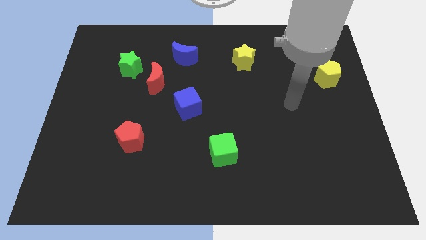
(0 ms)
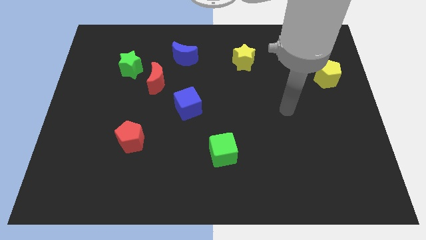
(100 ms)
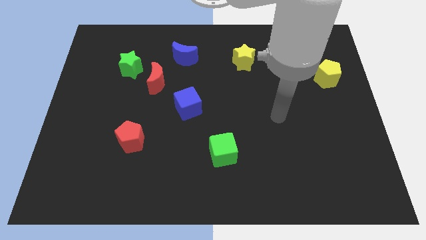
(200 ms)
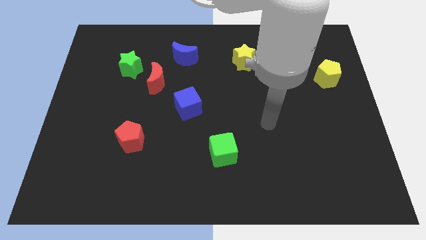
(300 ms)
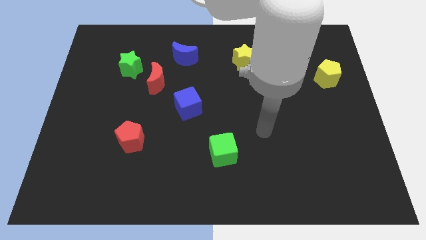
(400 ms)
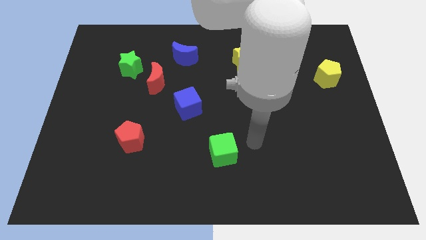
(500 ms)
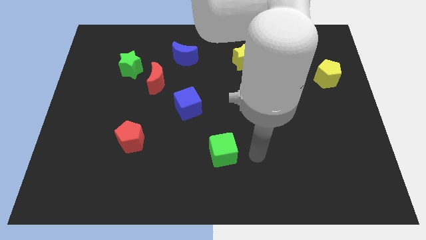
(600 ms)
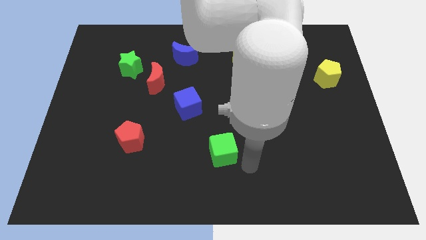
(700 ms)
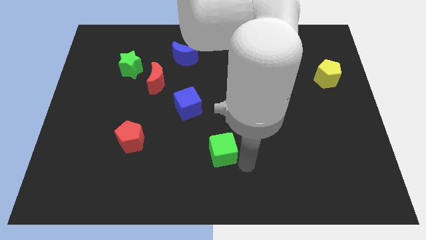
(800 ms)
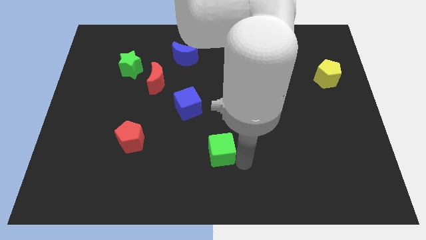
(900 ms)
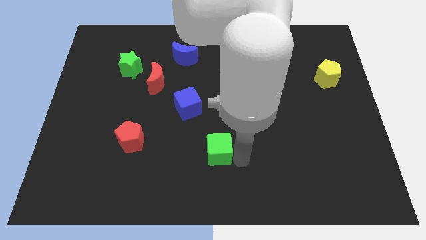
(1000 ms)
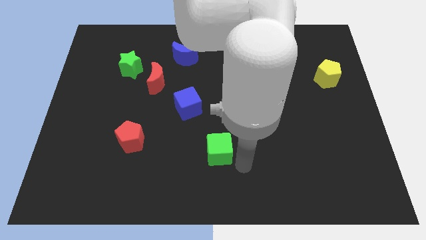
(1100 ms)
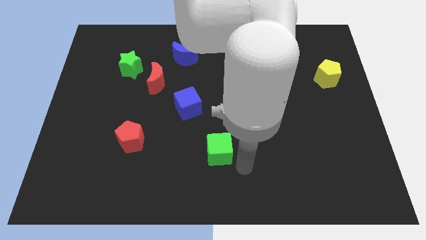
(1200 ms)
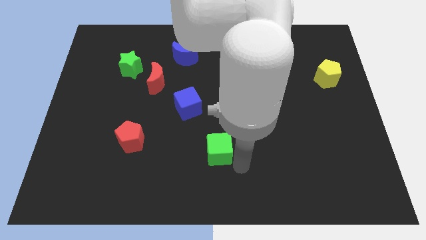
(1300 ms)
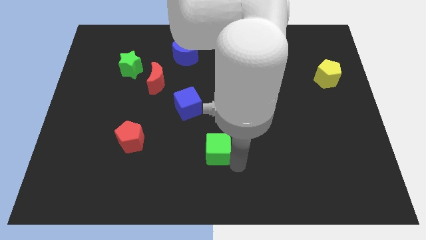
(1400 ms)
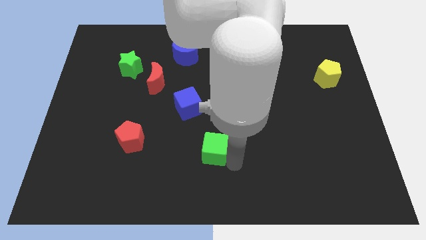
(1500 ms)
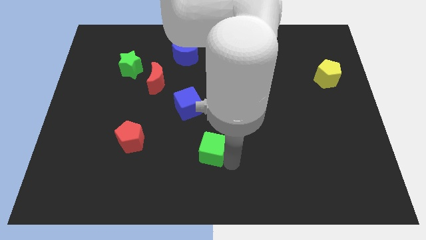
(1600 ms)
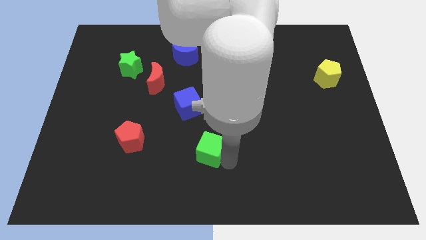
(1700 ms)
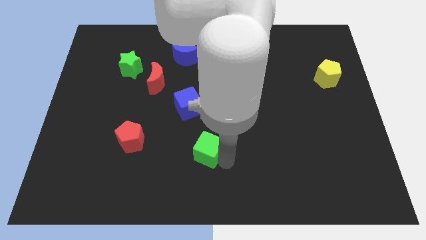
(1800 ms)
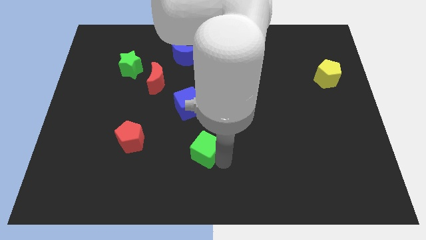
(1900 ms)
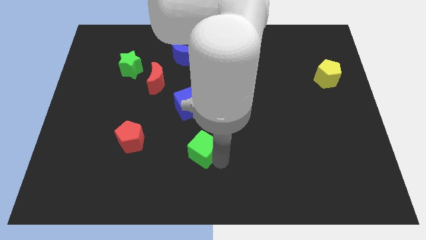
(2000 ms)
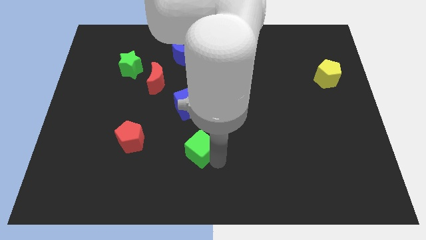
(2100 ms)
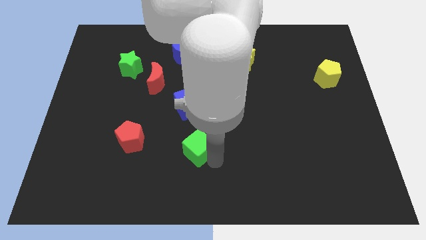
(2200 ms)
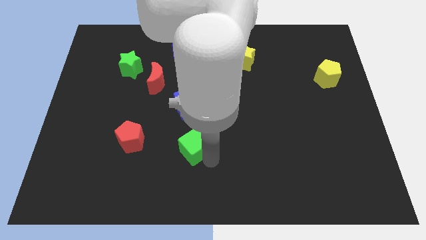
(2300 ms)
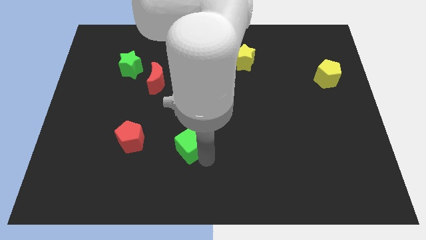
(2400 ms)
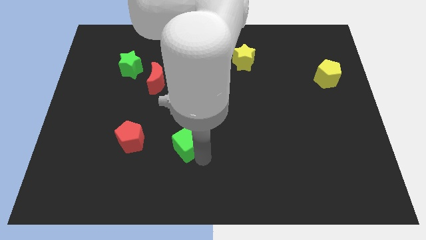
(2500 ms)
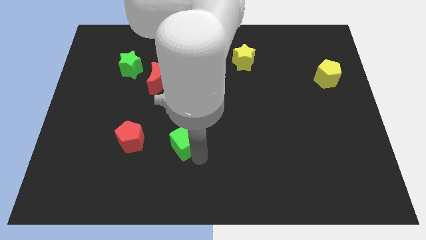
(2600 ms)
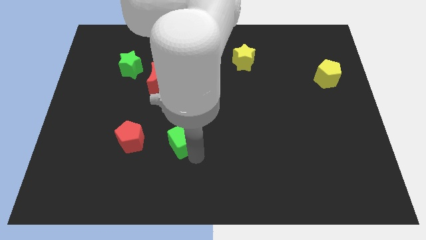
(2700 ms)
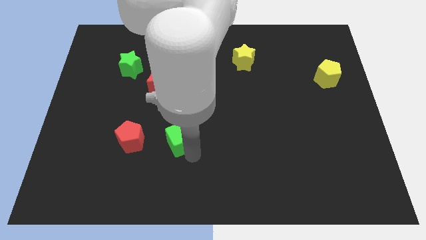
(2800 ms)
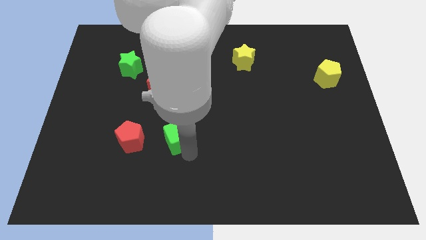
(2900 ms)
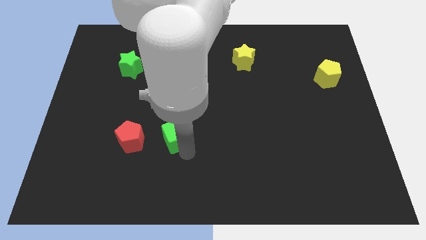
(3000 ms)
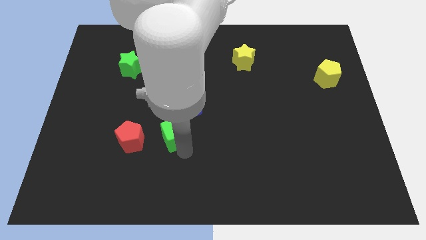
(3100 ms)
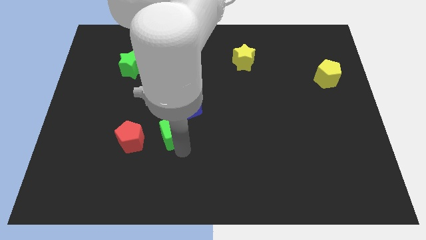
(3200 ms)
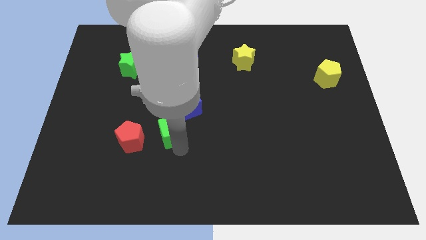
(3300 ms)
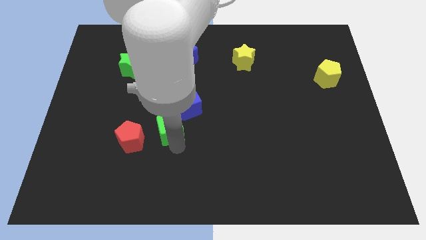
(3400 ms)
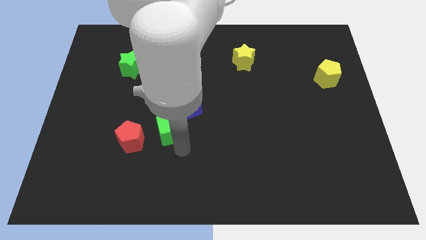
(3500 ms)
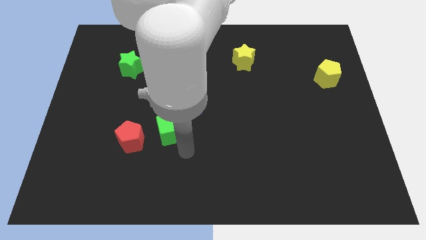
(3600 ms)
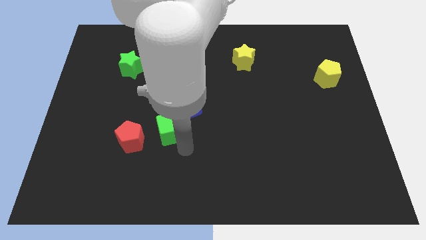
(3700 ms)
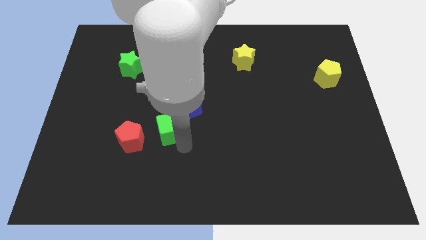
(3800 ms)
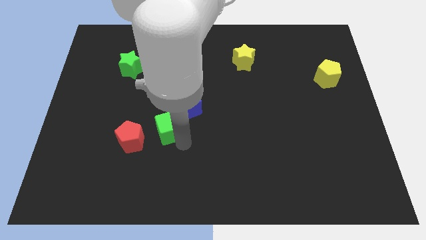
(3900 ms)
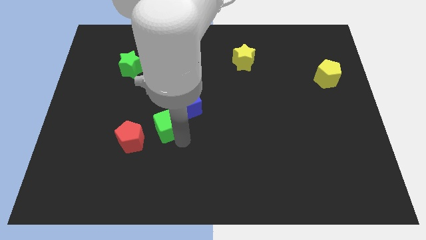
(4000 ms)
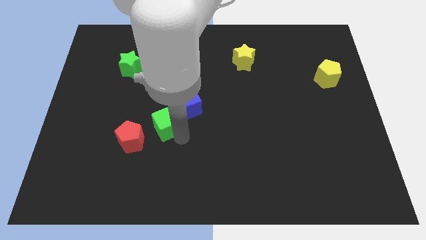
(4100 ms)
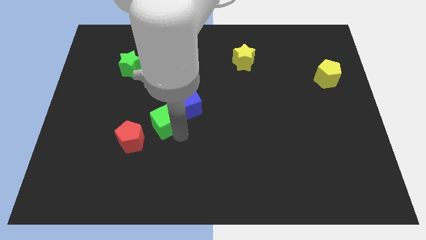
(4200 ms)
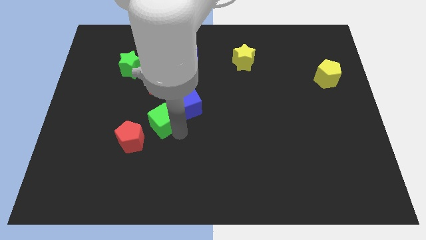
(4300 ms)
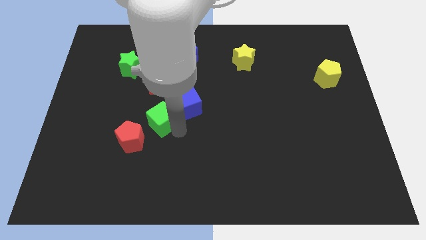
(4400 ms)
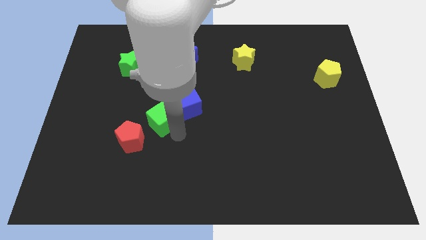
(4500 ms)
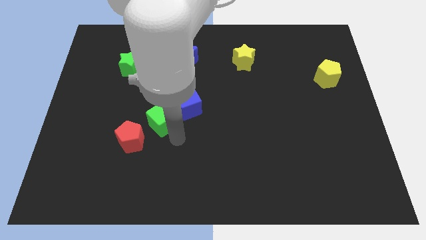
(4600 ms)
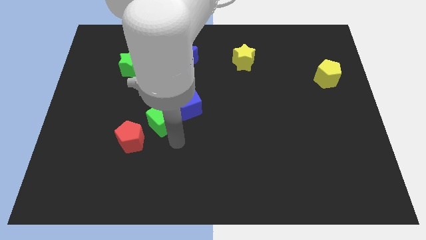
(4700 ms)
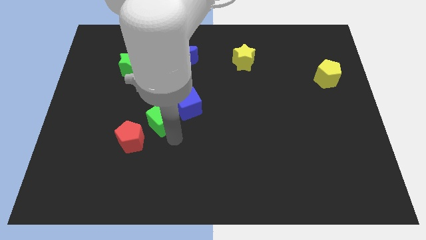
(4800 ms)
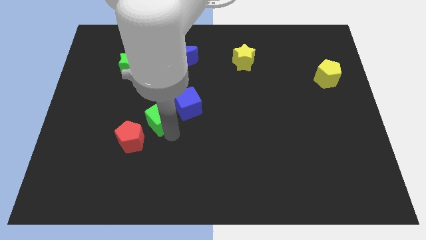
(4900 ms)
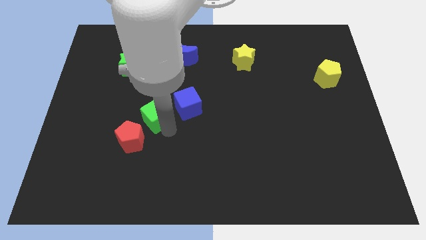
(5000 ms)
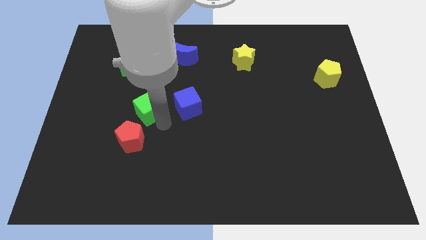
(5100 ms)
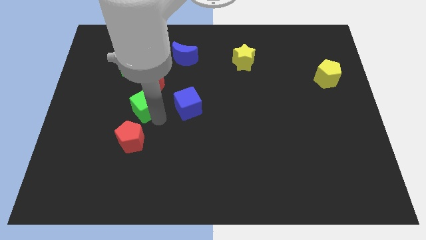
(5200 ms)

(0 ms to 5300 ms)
put the green cube diagonally down and to the left of the red moon

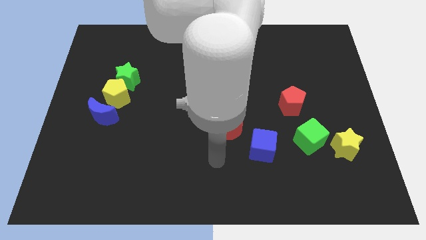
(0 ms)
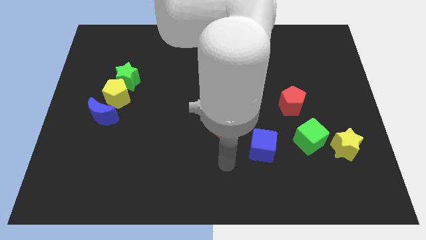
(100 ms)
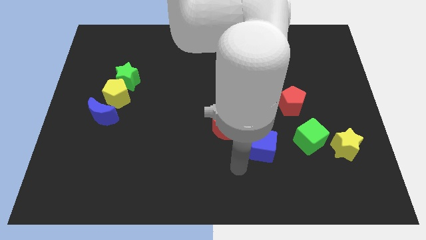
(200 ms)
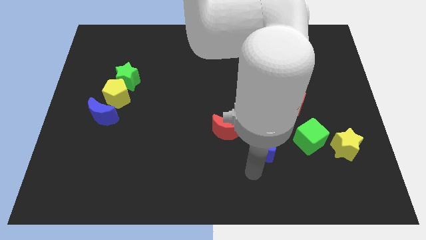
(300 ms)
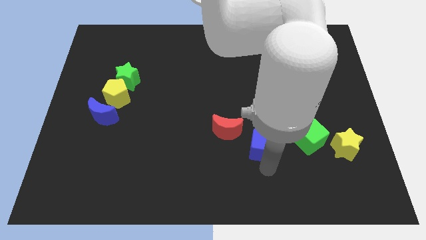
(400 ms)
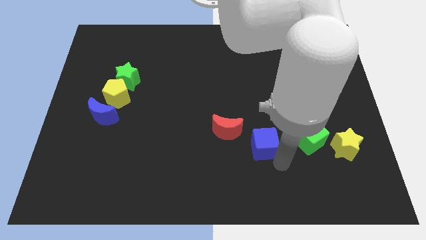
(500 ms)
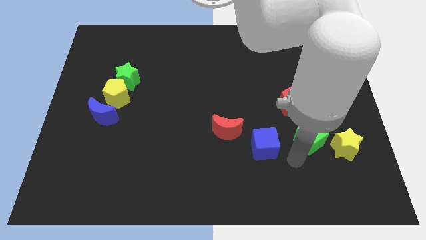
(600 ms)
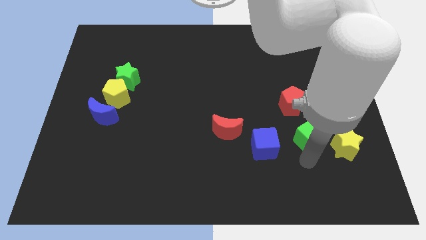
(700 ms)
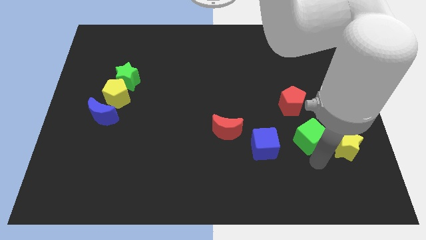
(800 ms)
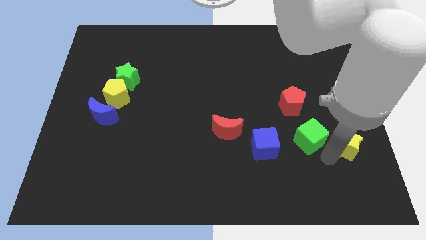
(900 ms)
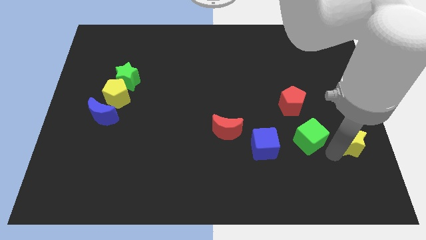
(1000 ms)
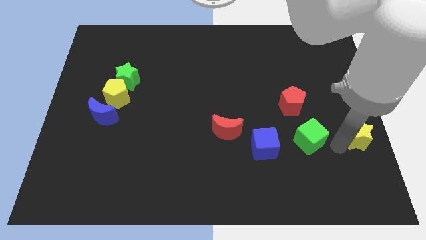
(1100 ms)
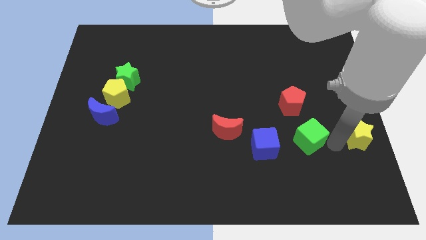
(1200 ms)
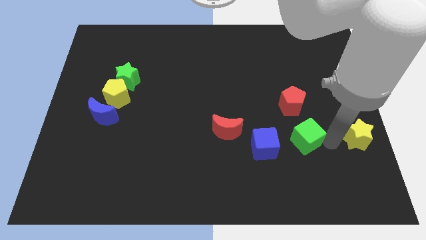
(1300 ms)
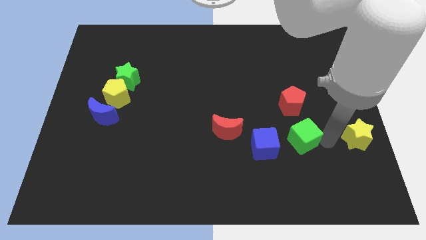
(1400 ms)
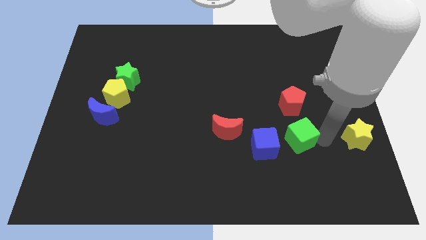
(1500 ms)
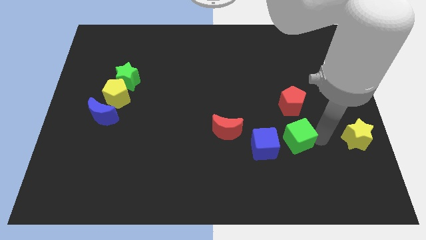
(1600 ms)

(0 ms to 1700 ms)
put the green cube to the right side of the red moon

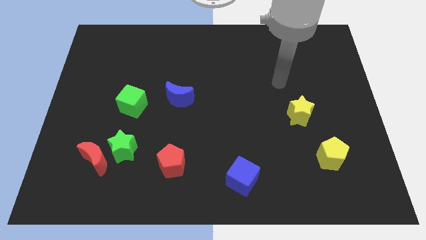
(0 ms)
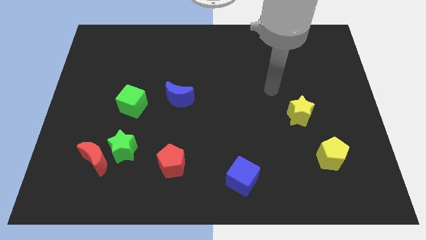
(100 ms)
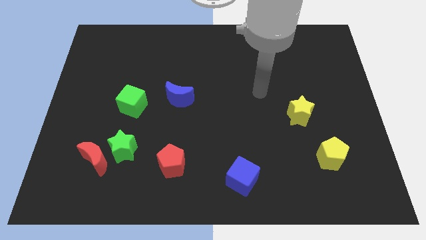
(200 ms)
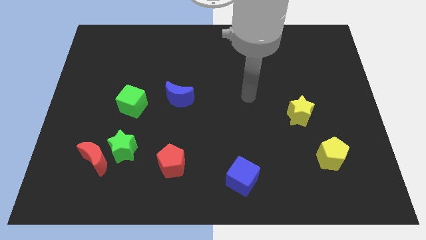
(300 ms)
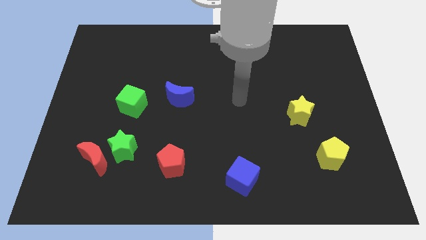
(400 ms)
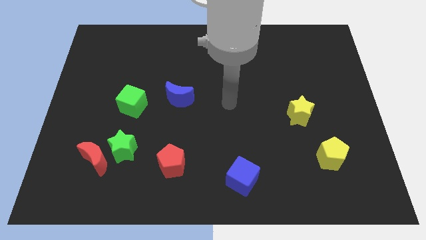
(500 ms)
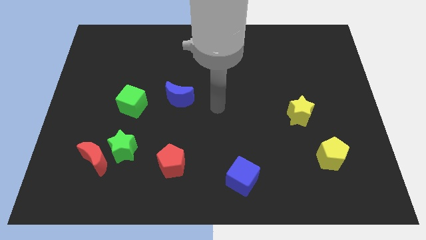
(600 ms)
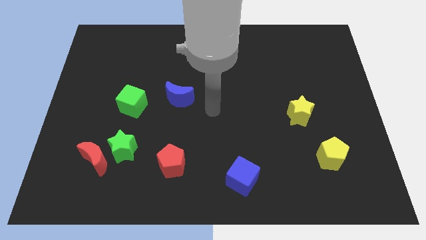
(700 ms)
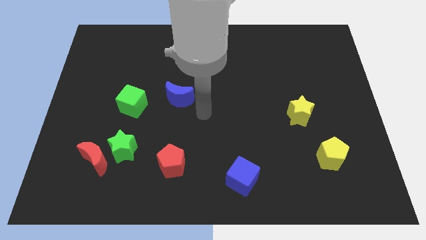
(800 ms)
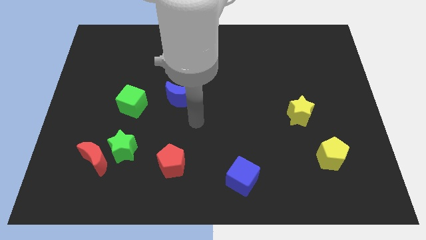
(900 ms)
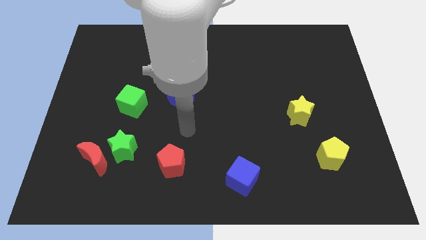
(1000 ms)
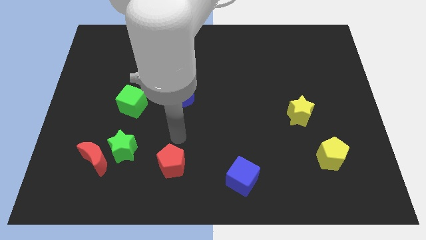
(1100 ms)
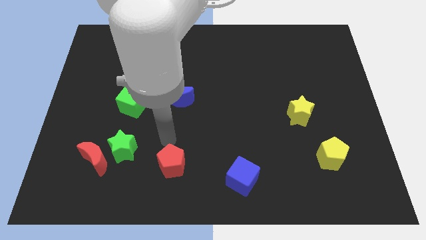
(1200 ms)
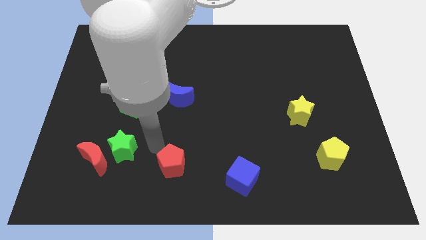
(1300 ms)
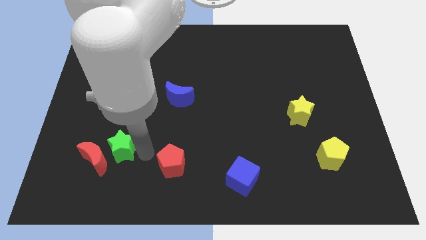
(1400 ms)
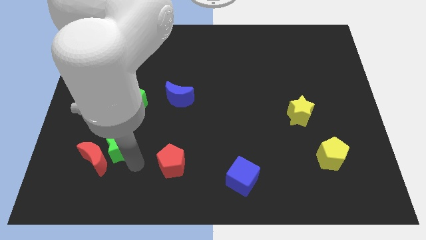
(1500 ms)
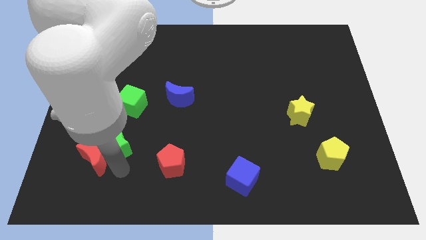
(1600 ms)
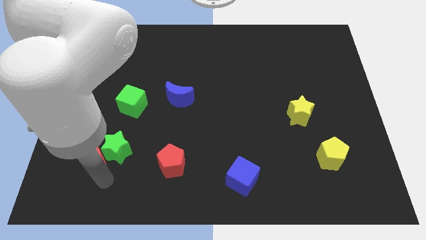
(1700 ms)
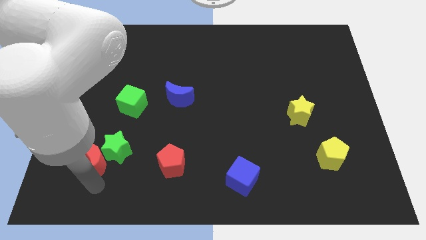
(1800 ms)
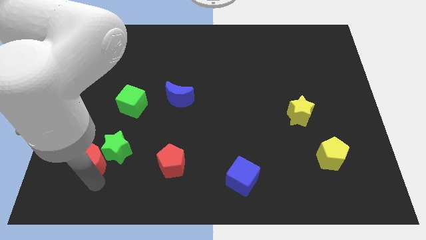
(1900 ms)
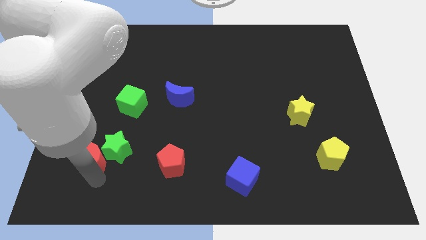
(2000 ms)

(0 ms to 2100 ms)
push the red moon to the top left side of the green star
